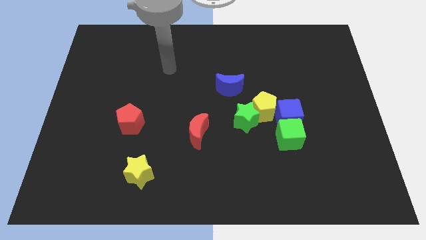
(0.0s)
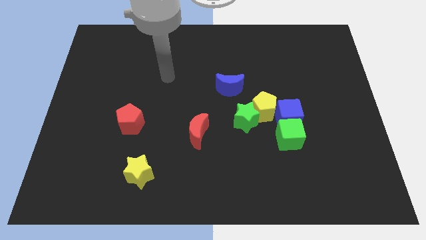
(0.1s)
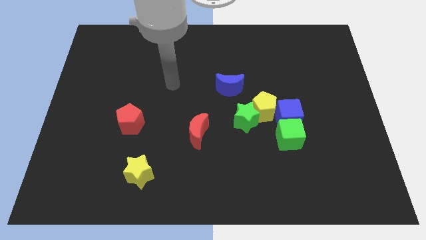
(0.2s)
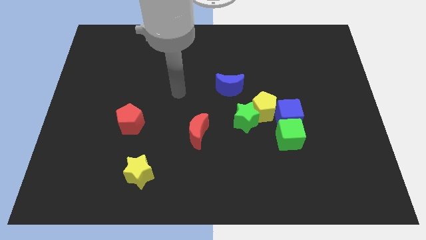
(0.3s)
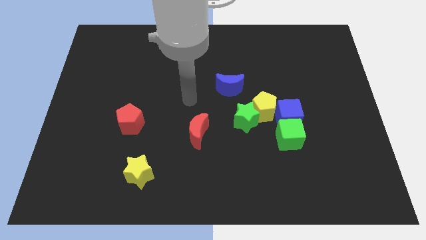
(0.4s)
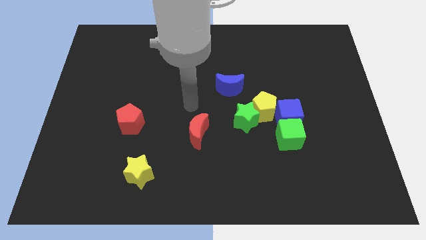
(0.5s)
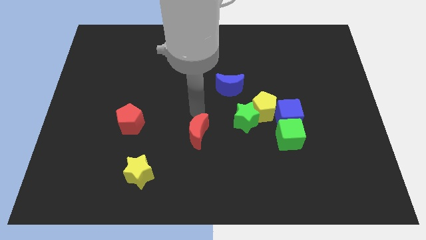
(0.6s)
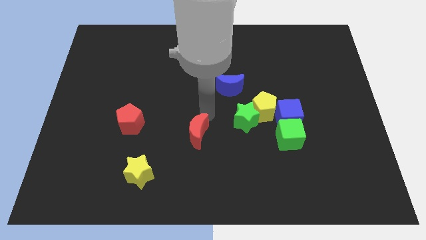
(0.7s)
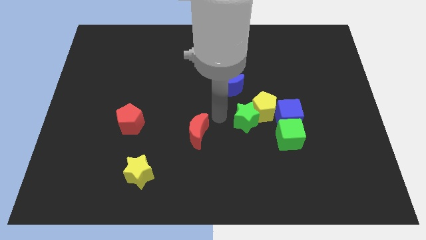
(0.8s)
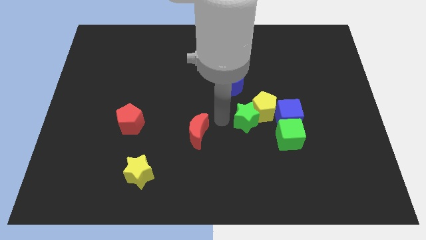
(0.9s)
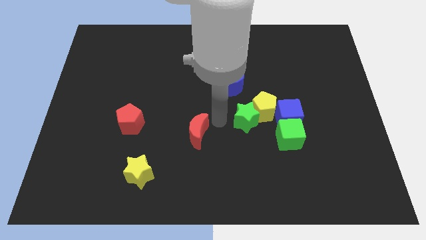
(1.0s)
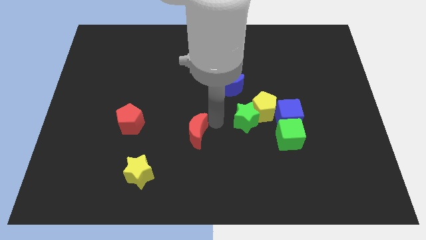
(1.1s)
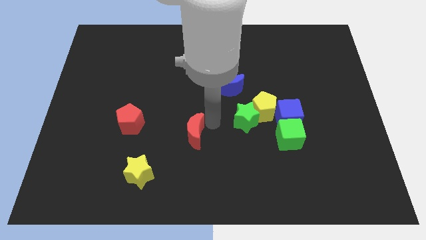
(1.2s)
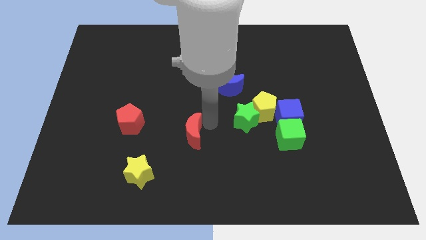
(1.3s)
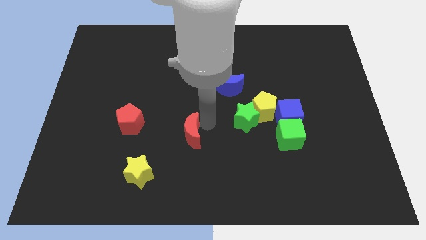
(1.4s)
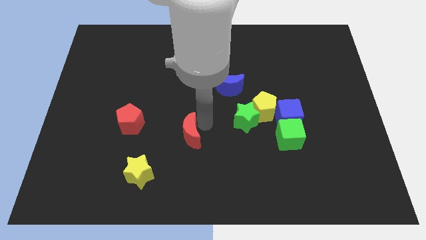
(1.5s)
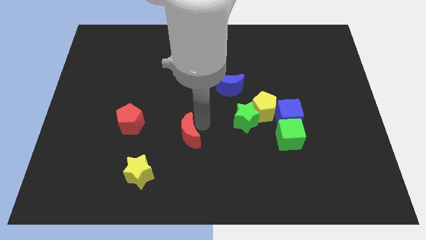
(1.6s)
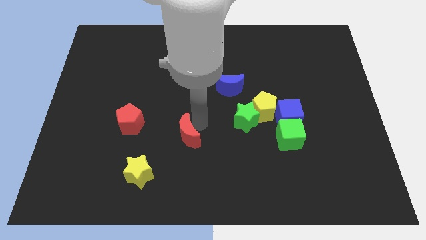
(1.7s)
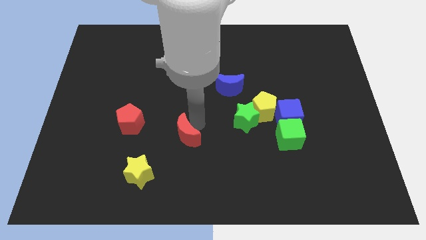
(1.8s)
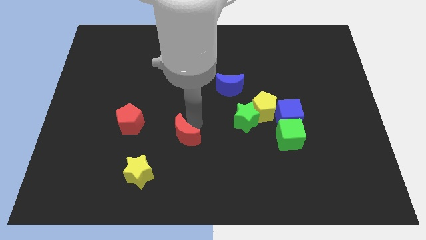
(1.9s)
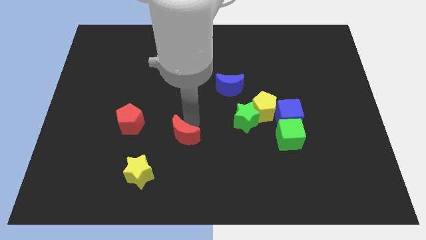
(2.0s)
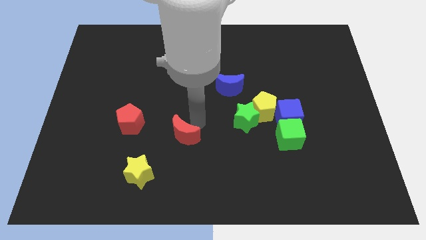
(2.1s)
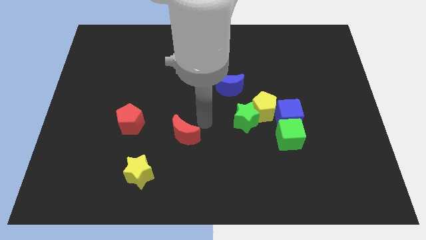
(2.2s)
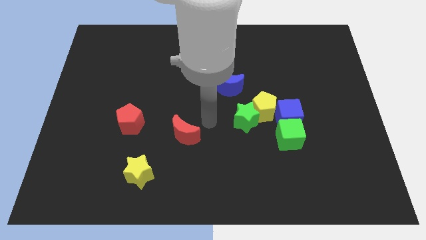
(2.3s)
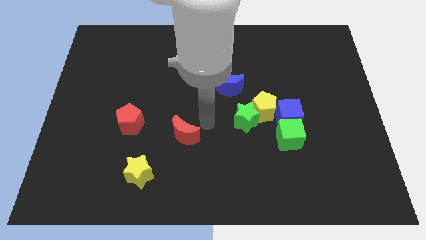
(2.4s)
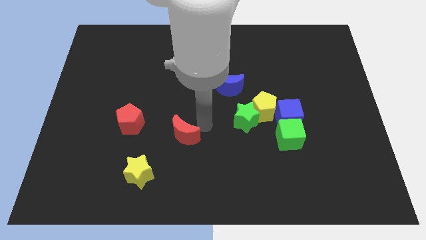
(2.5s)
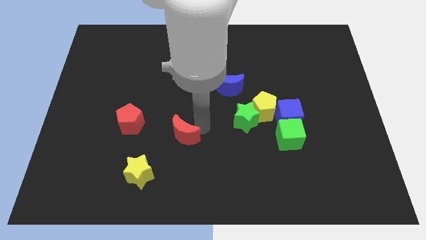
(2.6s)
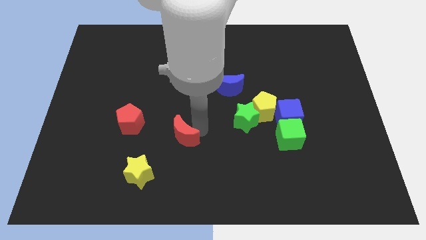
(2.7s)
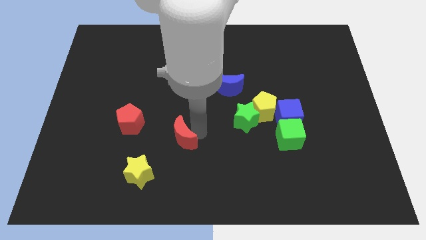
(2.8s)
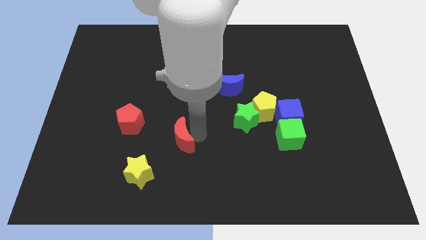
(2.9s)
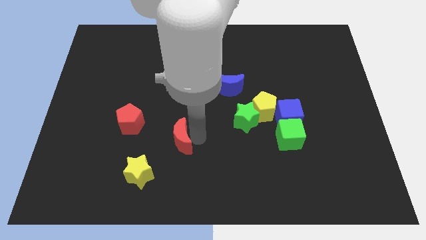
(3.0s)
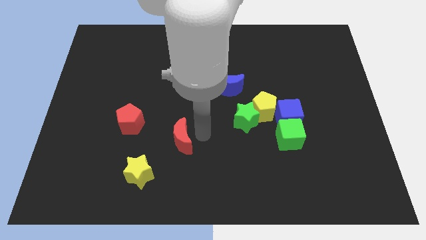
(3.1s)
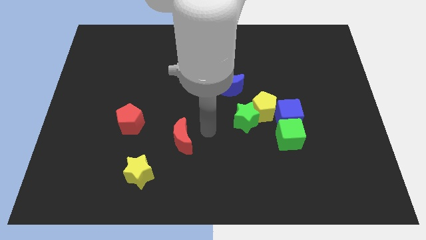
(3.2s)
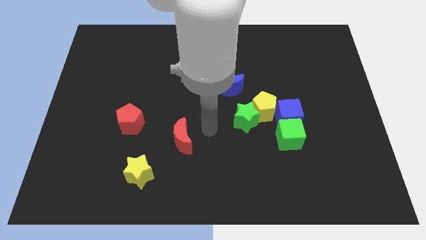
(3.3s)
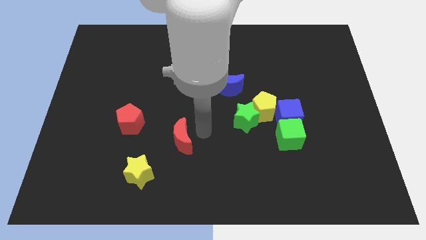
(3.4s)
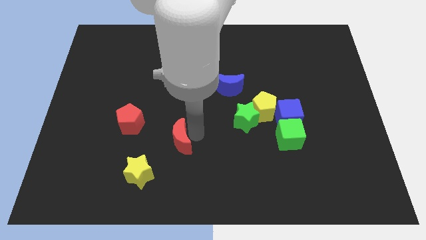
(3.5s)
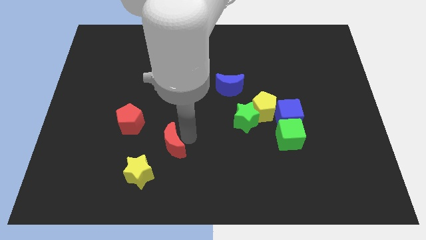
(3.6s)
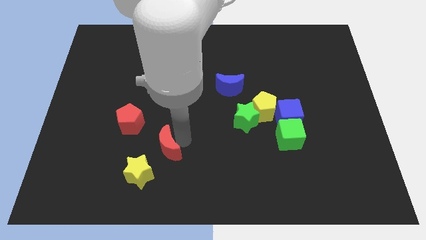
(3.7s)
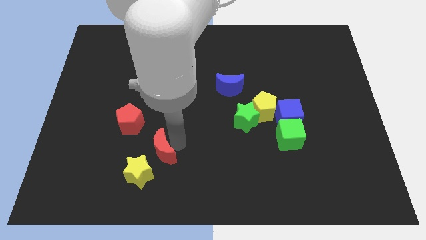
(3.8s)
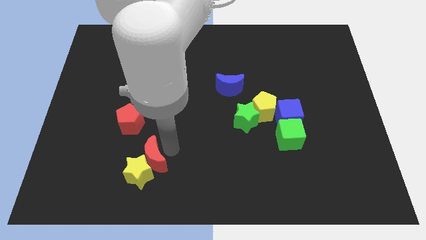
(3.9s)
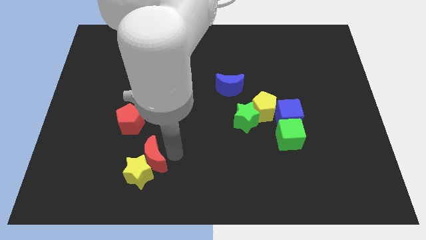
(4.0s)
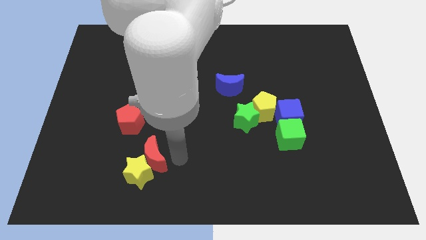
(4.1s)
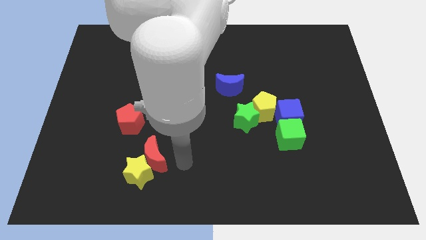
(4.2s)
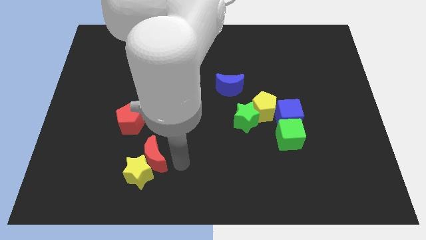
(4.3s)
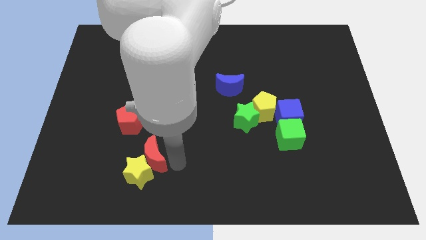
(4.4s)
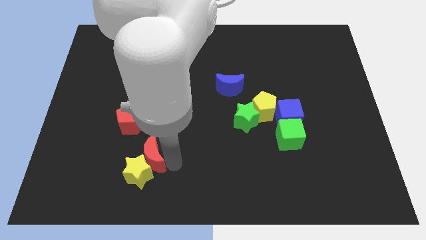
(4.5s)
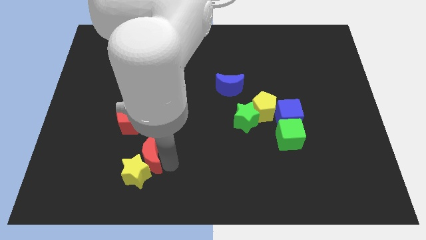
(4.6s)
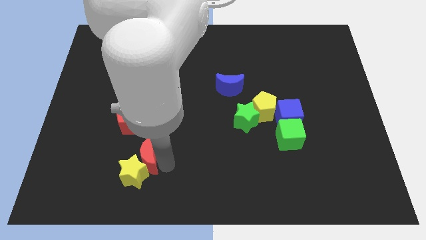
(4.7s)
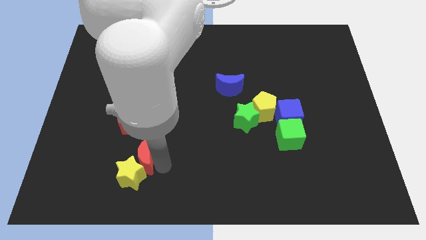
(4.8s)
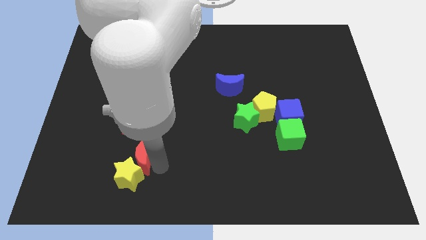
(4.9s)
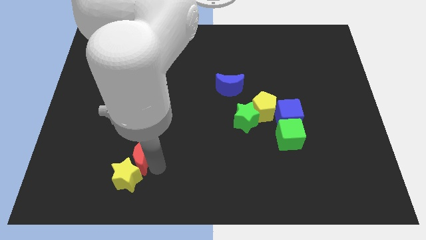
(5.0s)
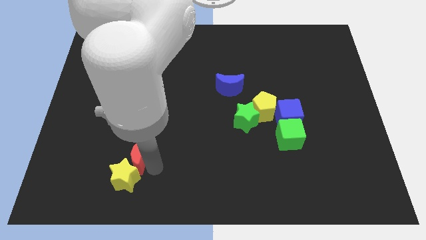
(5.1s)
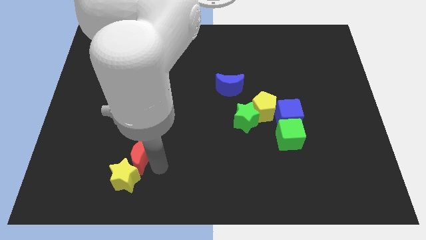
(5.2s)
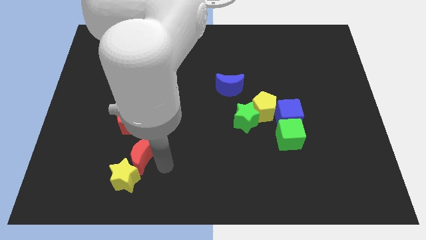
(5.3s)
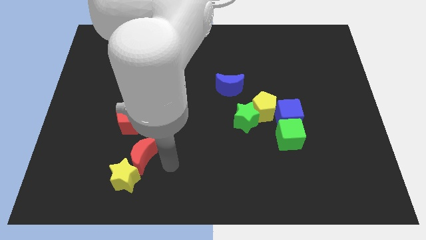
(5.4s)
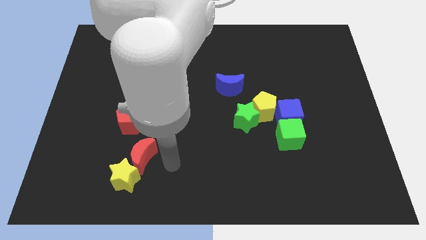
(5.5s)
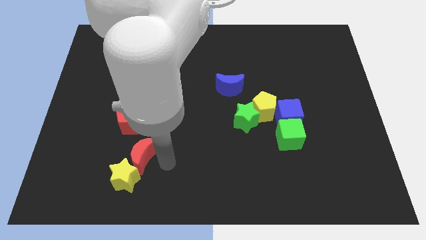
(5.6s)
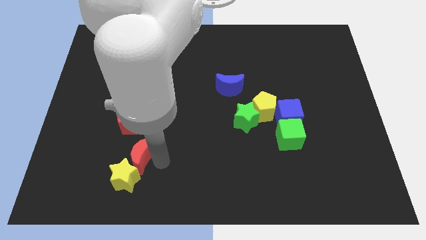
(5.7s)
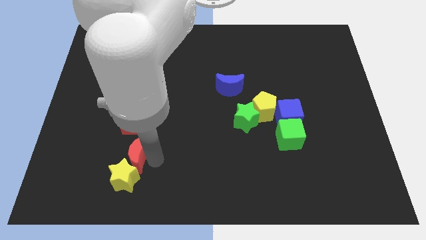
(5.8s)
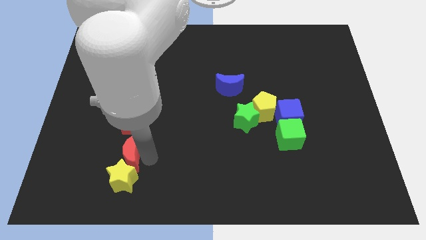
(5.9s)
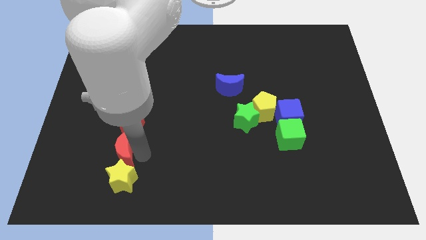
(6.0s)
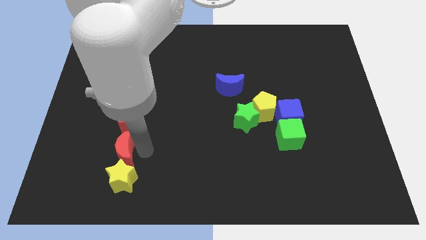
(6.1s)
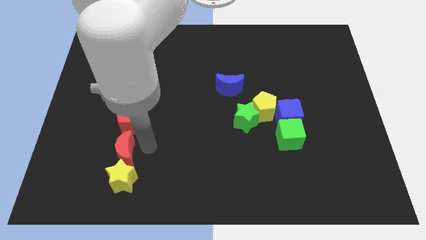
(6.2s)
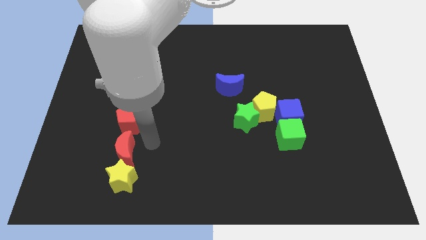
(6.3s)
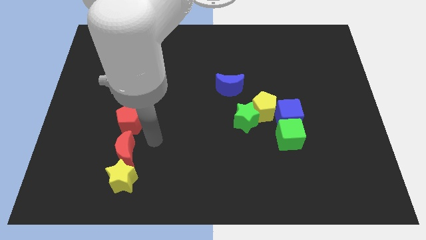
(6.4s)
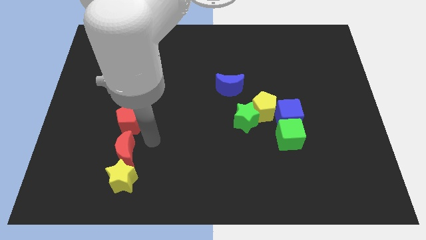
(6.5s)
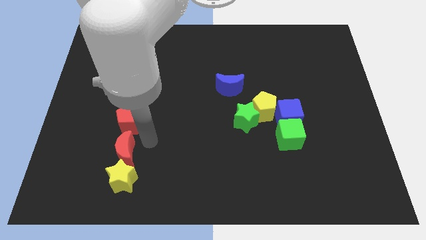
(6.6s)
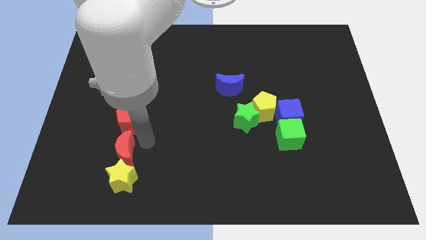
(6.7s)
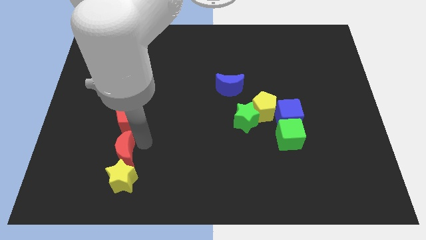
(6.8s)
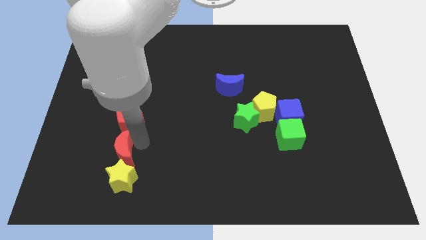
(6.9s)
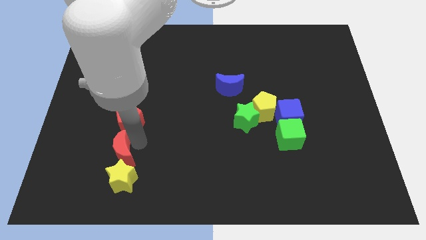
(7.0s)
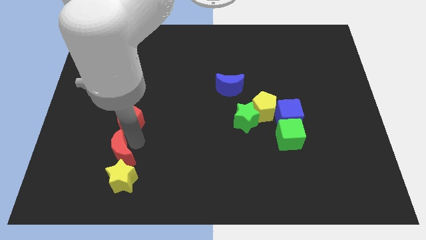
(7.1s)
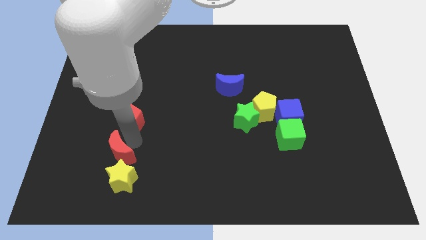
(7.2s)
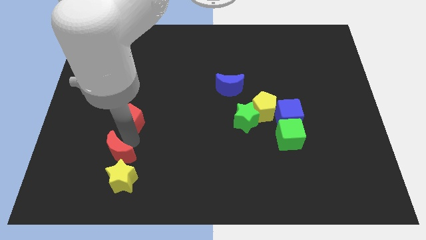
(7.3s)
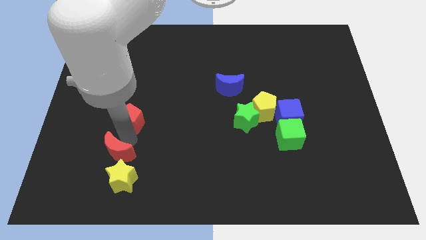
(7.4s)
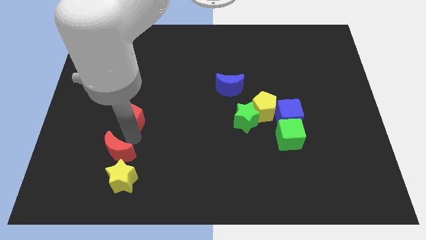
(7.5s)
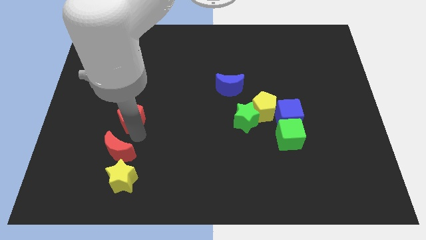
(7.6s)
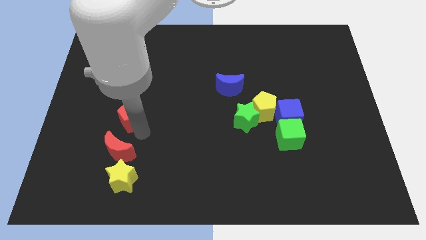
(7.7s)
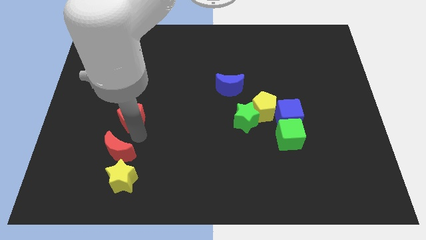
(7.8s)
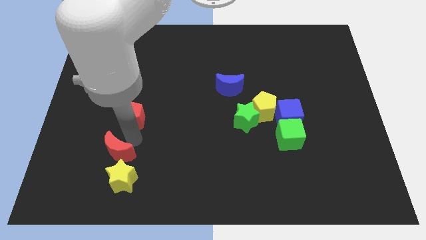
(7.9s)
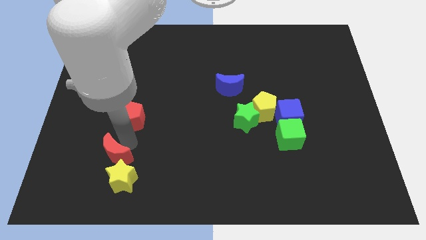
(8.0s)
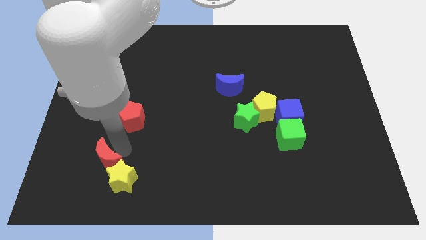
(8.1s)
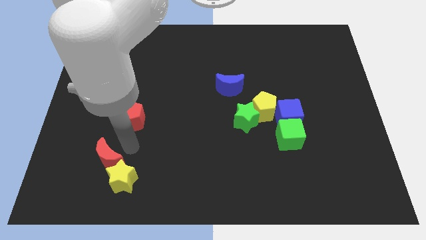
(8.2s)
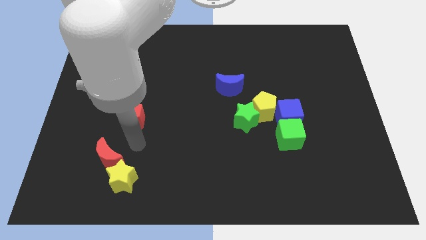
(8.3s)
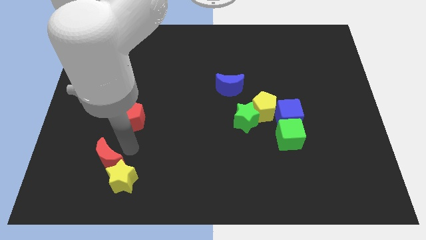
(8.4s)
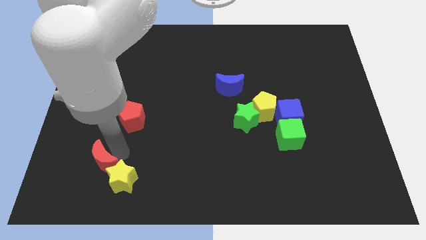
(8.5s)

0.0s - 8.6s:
slide the red moon just left of the yellow star
